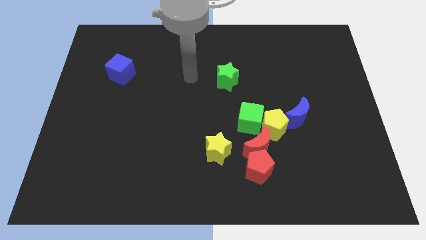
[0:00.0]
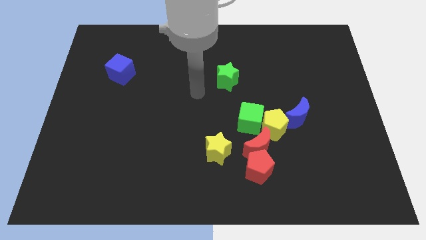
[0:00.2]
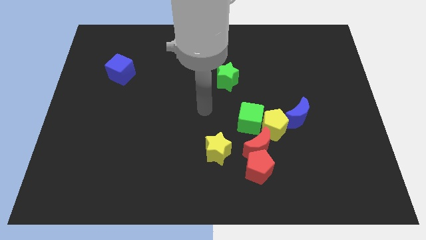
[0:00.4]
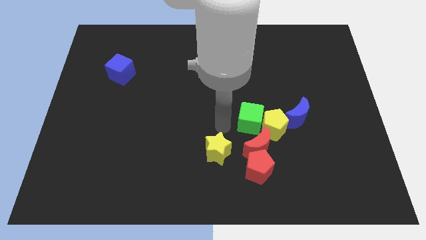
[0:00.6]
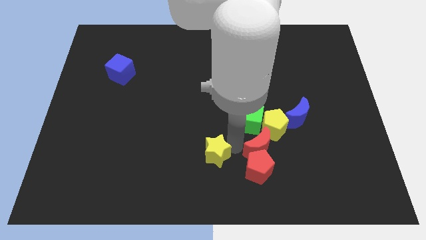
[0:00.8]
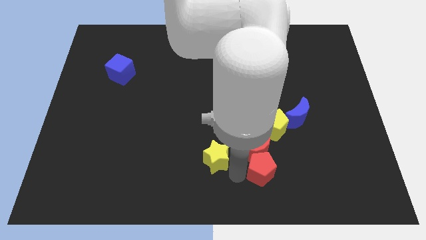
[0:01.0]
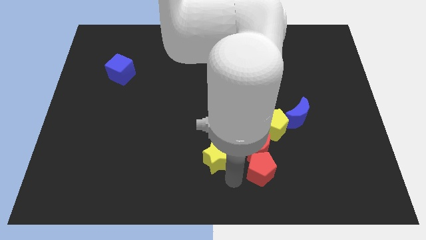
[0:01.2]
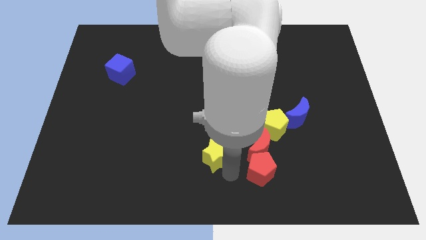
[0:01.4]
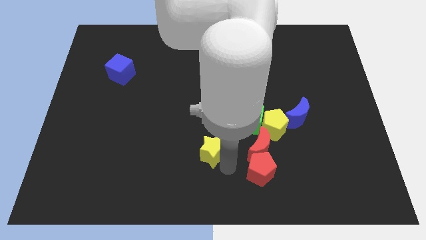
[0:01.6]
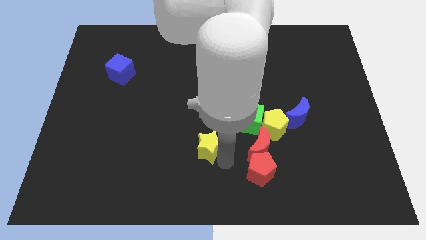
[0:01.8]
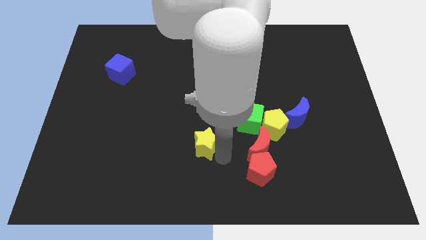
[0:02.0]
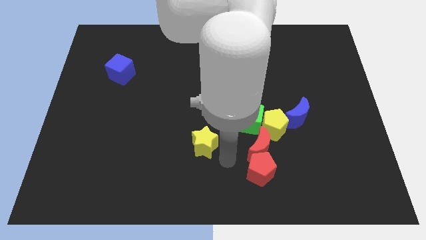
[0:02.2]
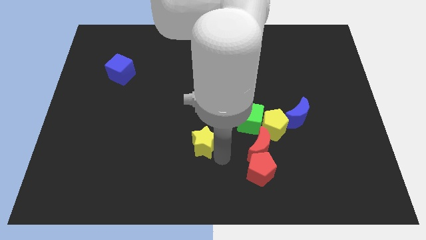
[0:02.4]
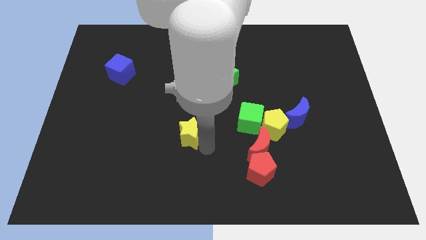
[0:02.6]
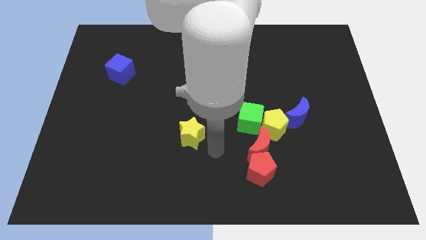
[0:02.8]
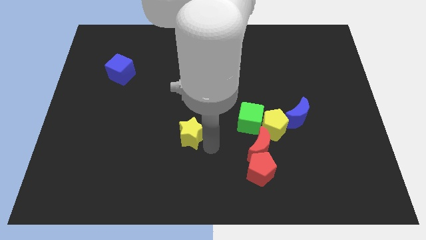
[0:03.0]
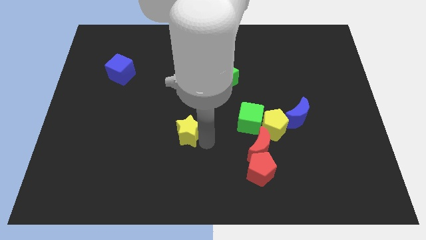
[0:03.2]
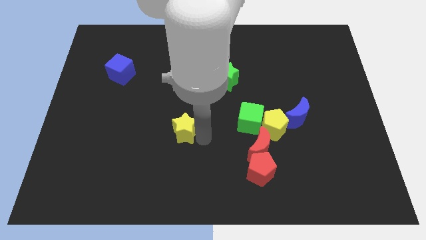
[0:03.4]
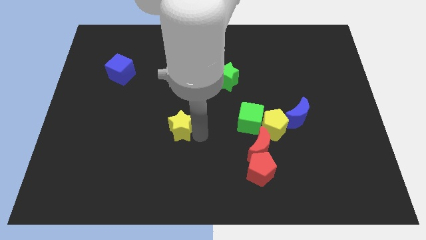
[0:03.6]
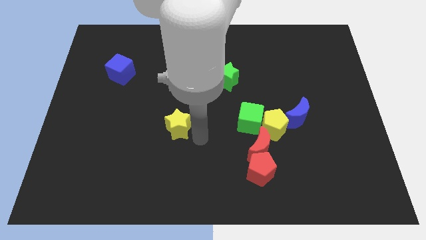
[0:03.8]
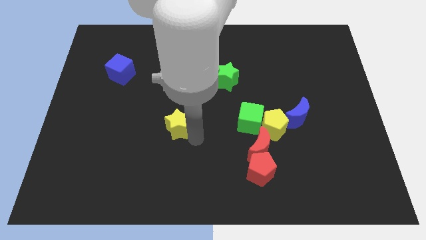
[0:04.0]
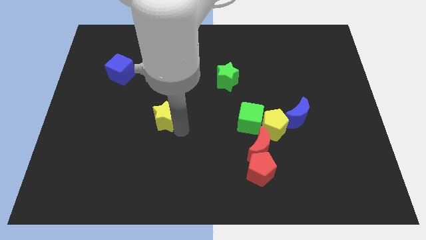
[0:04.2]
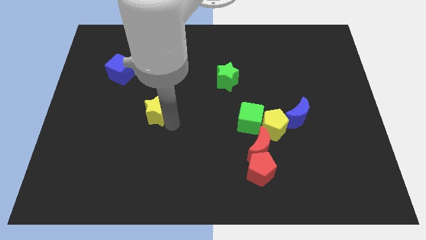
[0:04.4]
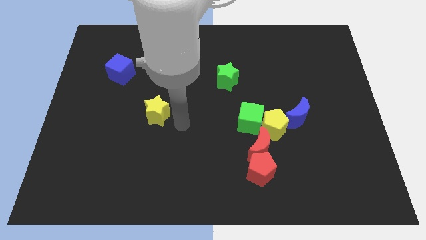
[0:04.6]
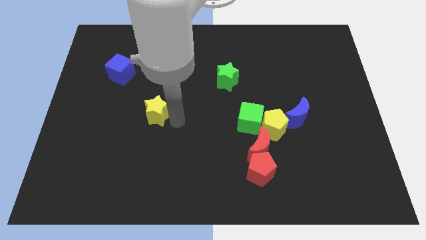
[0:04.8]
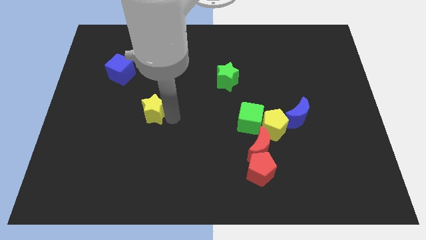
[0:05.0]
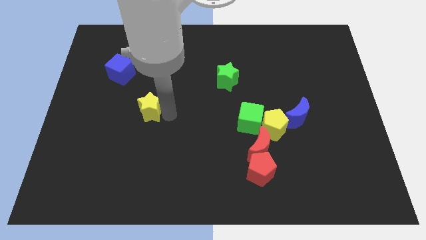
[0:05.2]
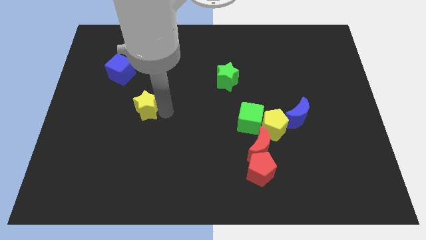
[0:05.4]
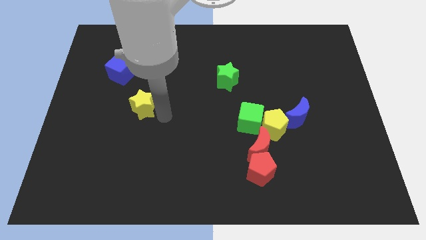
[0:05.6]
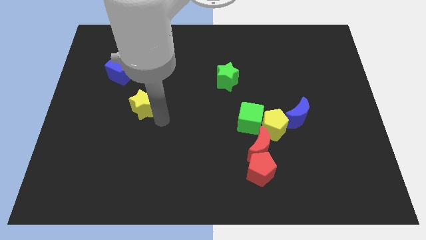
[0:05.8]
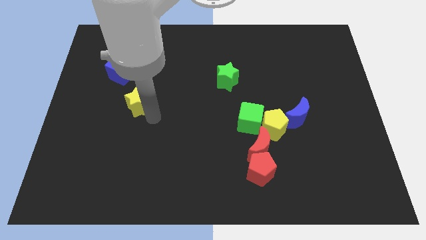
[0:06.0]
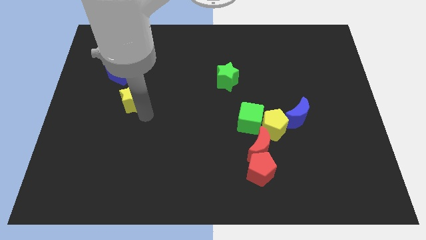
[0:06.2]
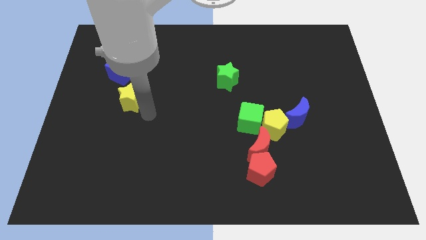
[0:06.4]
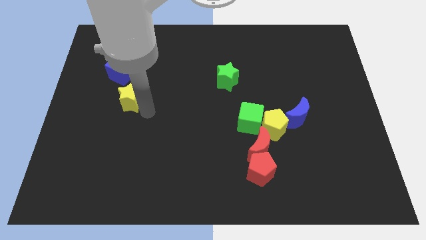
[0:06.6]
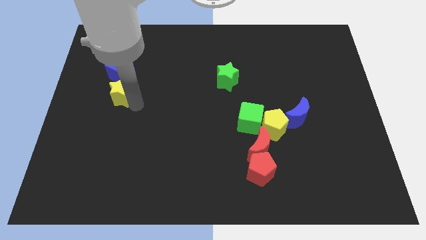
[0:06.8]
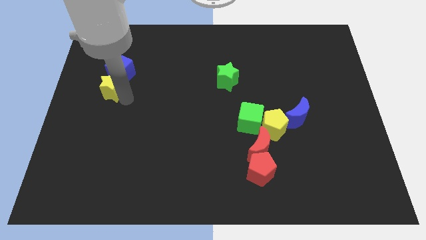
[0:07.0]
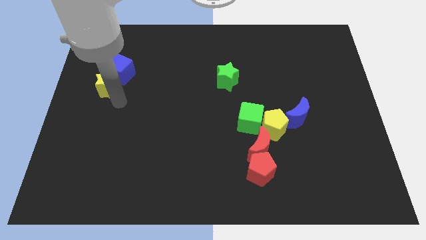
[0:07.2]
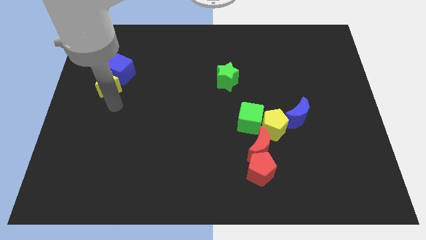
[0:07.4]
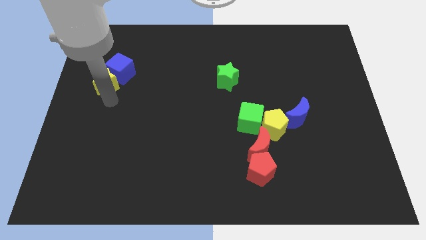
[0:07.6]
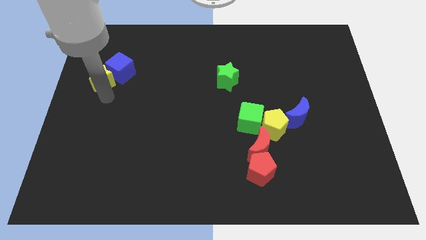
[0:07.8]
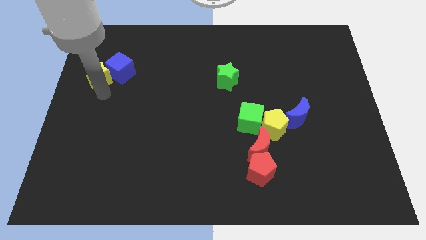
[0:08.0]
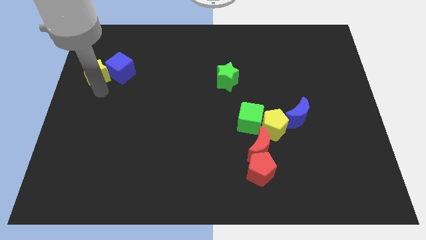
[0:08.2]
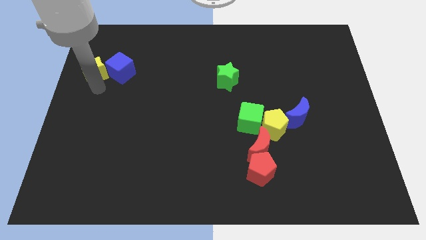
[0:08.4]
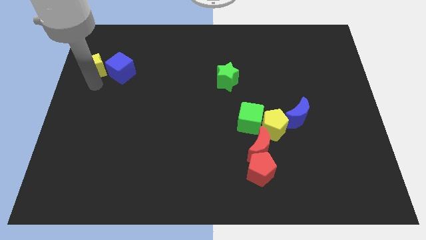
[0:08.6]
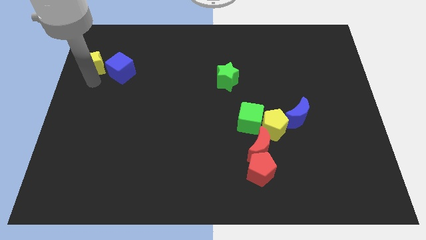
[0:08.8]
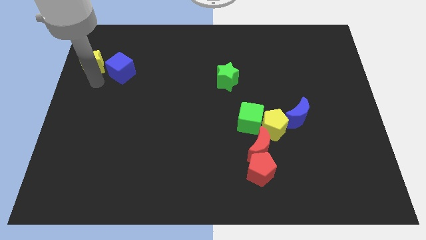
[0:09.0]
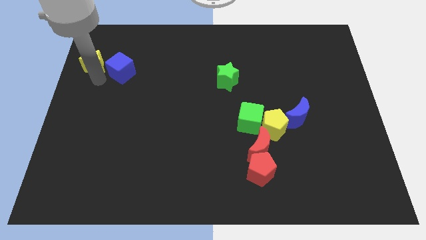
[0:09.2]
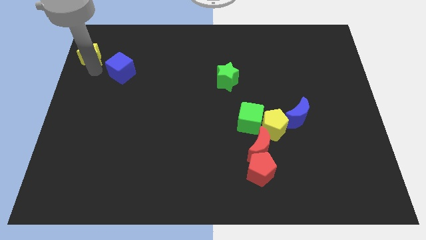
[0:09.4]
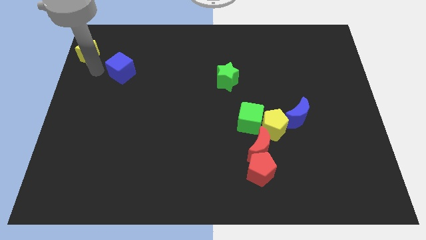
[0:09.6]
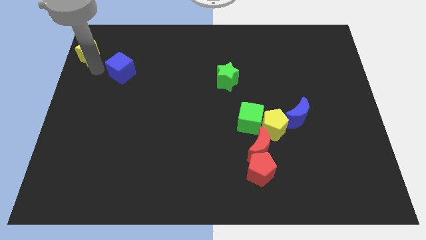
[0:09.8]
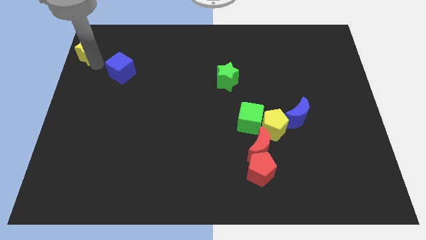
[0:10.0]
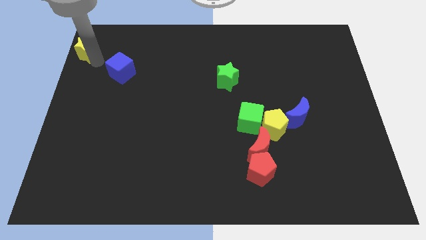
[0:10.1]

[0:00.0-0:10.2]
push the yellow star to the top left

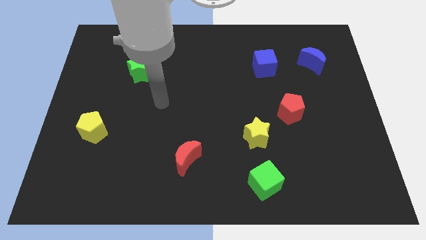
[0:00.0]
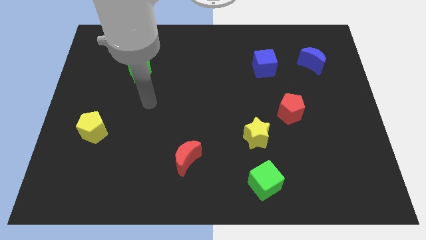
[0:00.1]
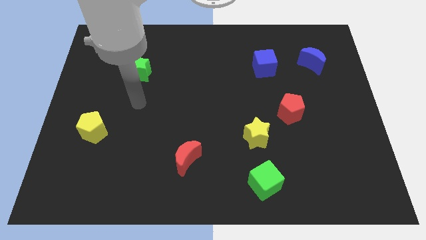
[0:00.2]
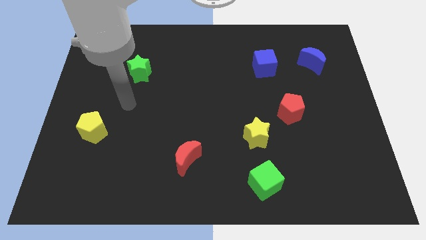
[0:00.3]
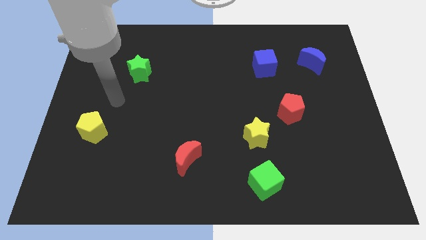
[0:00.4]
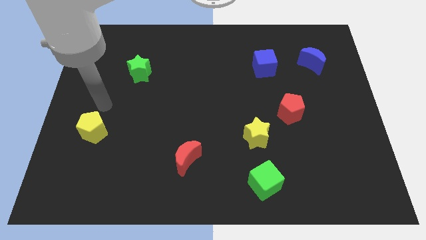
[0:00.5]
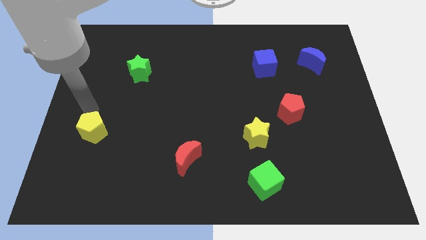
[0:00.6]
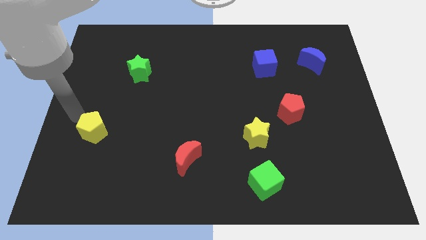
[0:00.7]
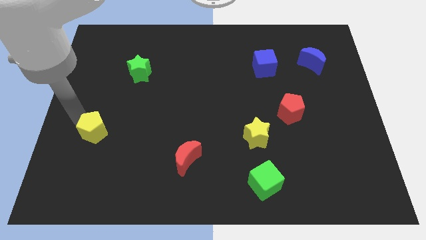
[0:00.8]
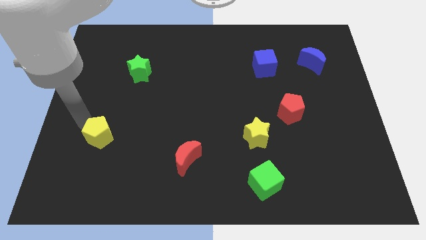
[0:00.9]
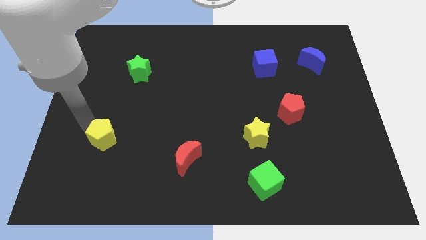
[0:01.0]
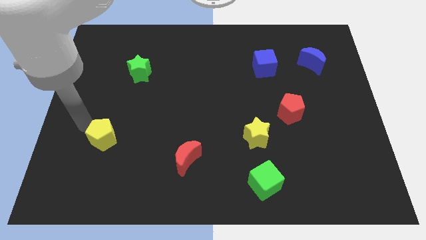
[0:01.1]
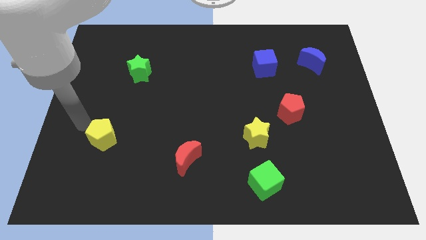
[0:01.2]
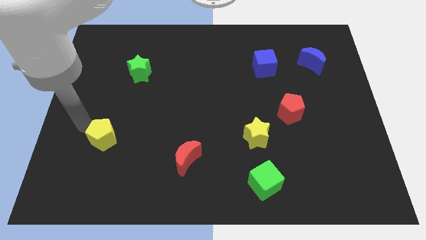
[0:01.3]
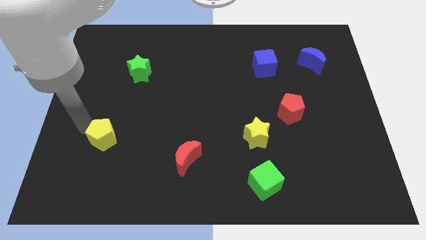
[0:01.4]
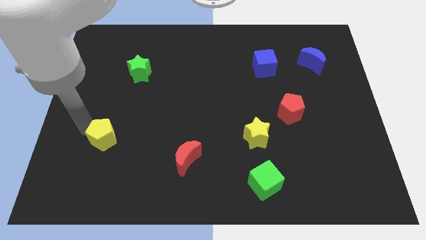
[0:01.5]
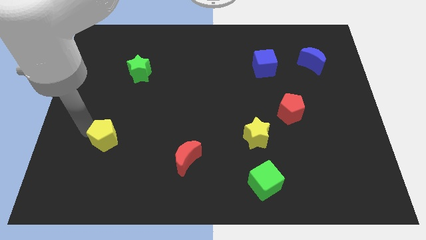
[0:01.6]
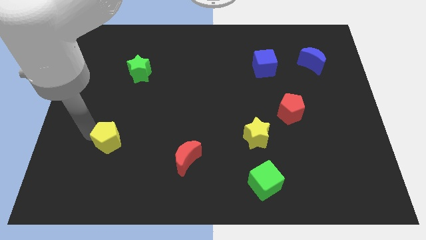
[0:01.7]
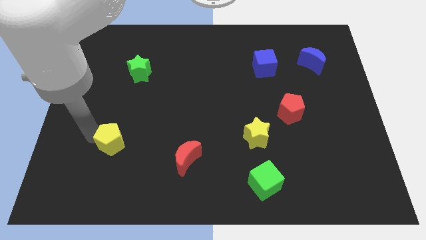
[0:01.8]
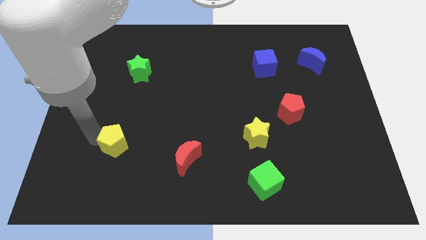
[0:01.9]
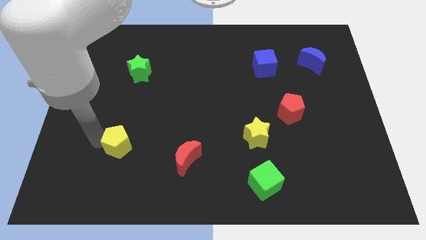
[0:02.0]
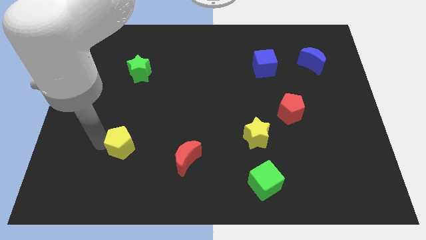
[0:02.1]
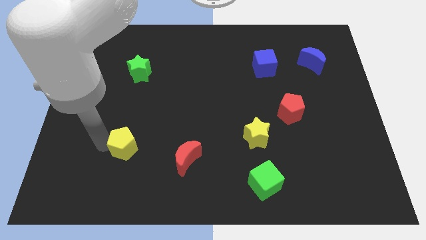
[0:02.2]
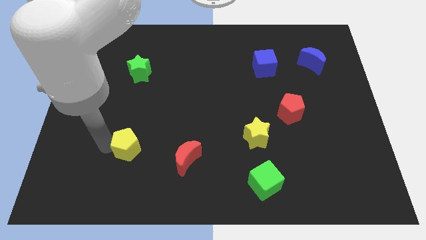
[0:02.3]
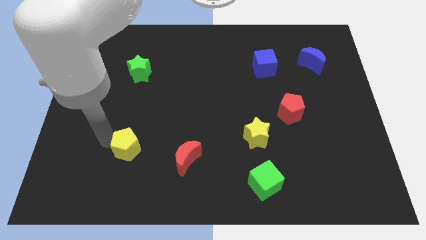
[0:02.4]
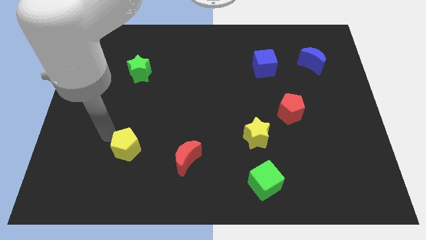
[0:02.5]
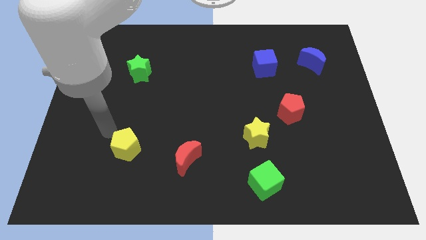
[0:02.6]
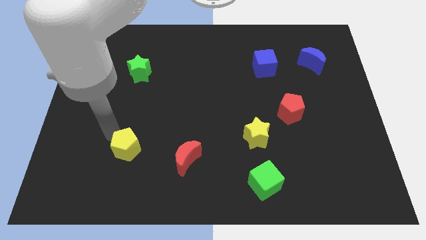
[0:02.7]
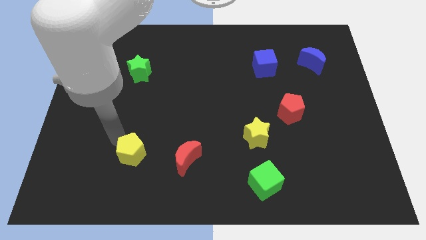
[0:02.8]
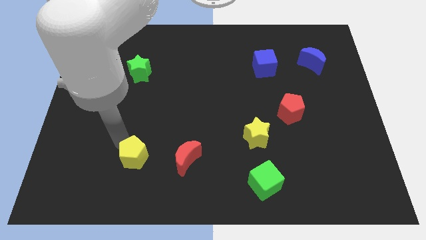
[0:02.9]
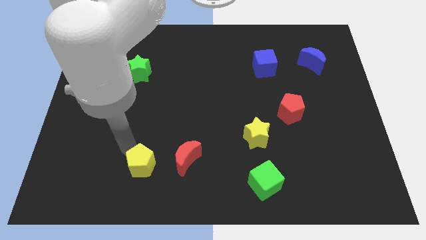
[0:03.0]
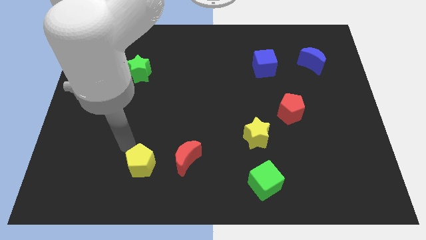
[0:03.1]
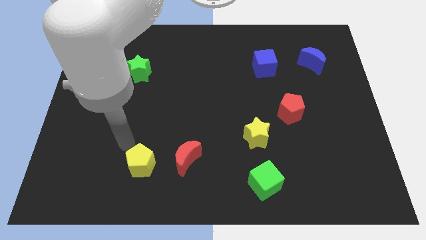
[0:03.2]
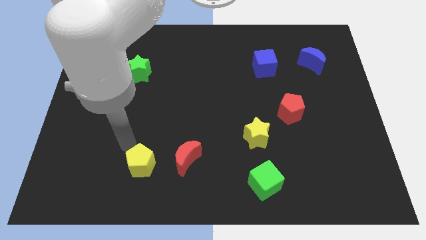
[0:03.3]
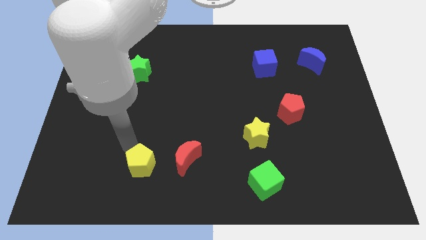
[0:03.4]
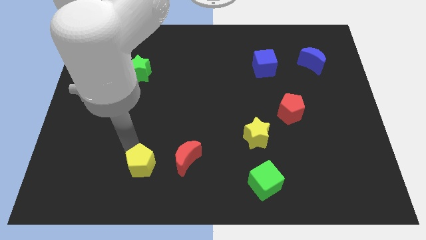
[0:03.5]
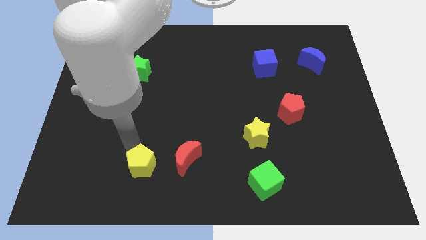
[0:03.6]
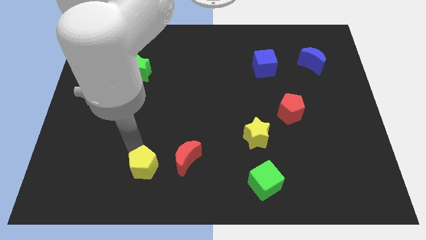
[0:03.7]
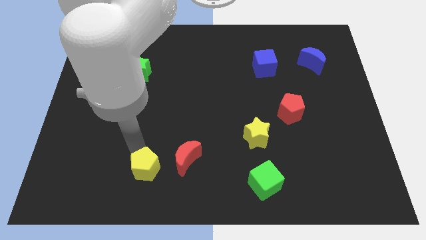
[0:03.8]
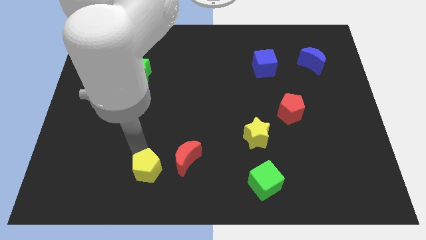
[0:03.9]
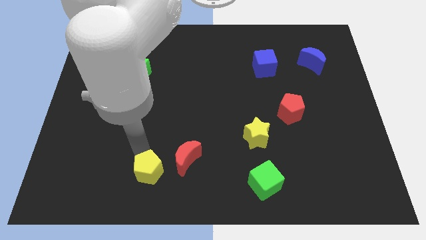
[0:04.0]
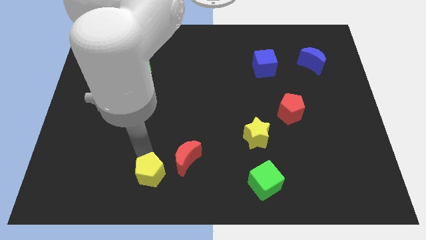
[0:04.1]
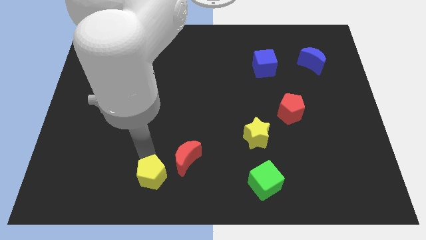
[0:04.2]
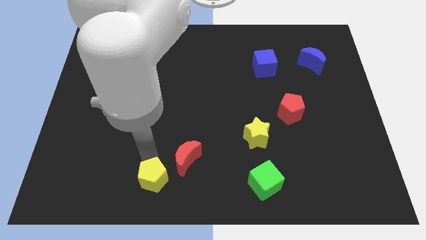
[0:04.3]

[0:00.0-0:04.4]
move the yellow pentagon to the bottom
